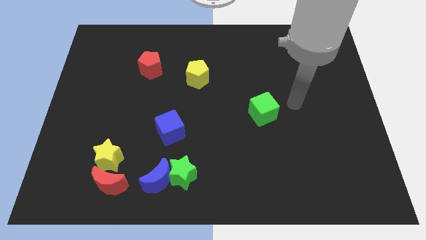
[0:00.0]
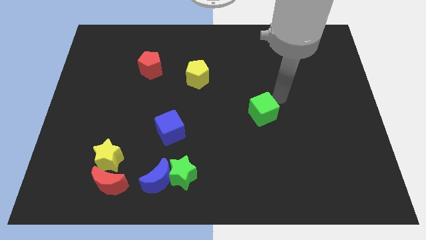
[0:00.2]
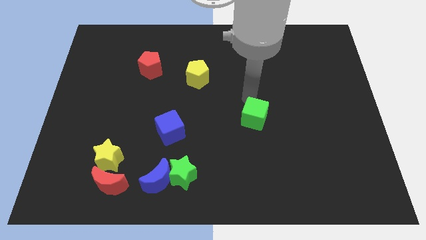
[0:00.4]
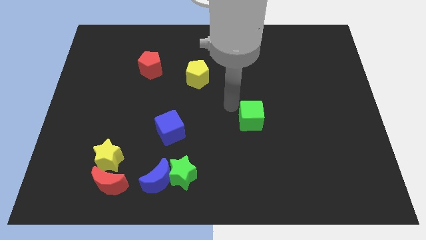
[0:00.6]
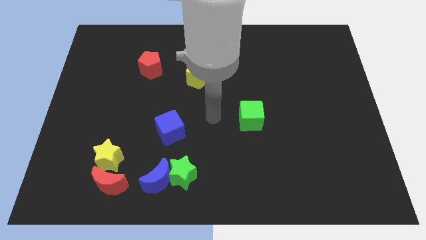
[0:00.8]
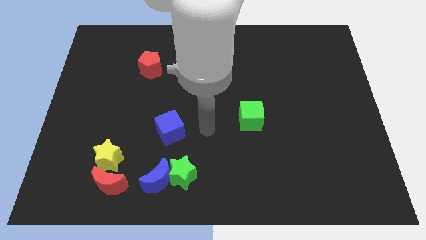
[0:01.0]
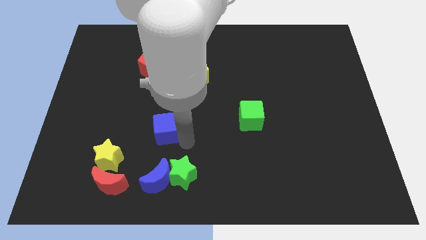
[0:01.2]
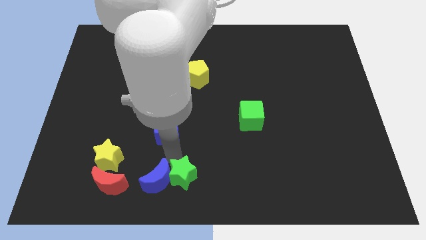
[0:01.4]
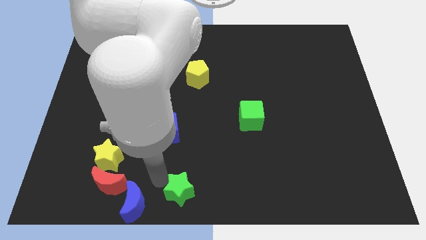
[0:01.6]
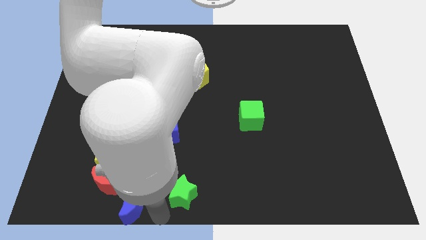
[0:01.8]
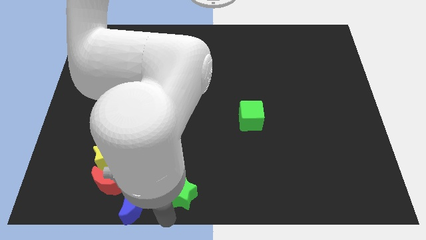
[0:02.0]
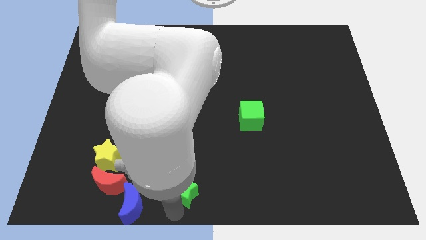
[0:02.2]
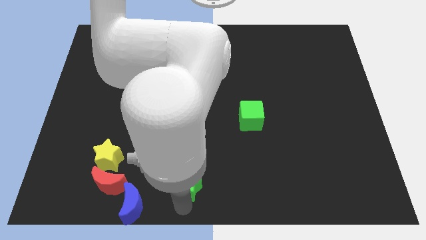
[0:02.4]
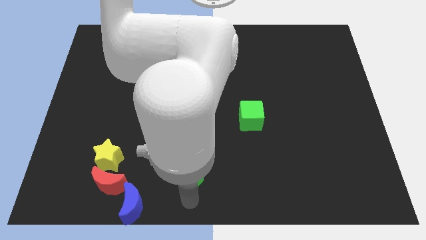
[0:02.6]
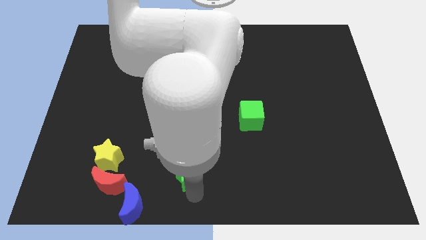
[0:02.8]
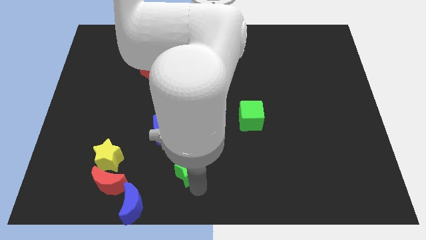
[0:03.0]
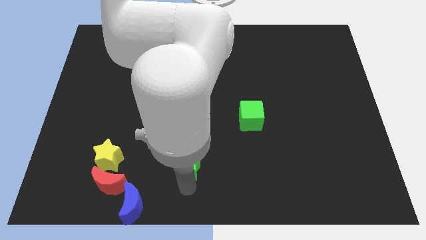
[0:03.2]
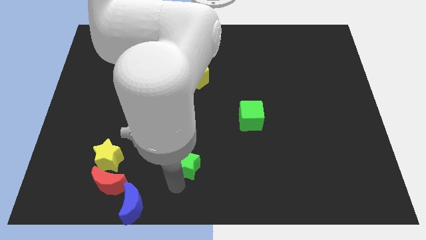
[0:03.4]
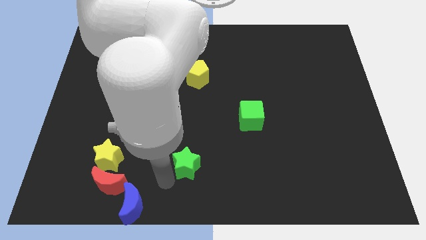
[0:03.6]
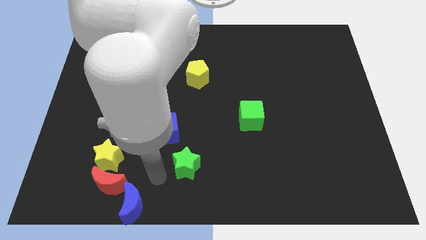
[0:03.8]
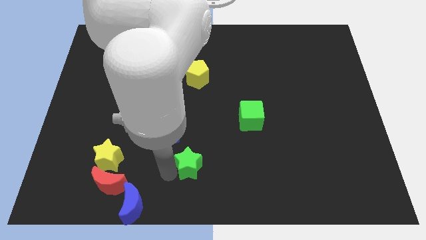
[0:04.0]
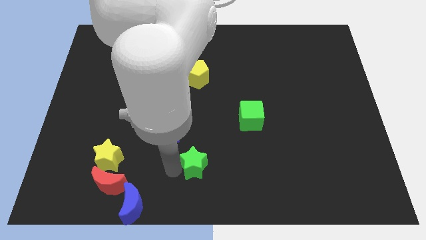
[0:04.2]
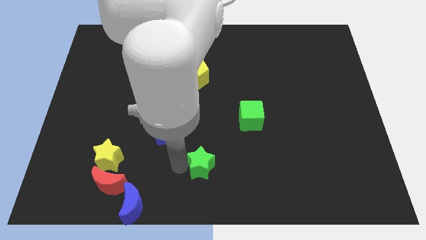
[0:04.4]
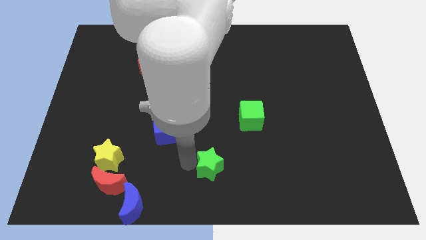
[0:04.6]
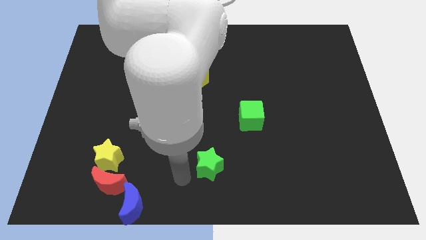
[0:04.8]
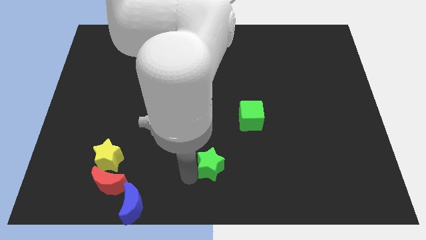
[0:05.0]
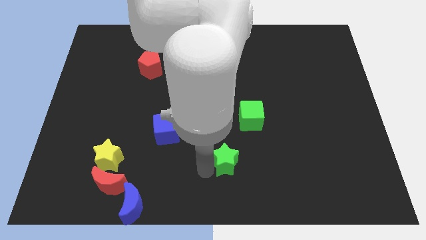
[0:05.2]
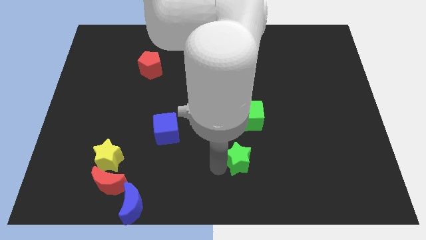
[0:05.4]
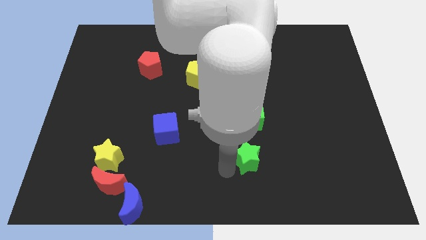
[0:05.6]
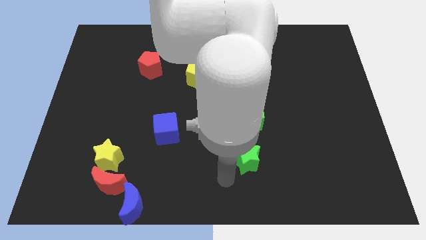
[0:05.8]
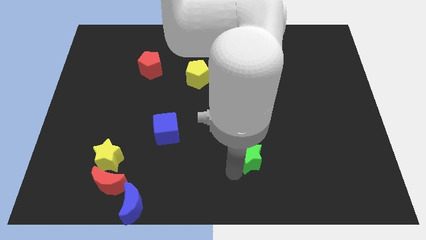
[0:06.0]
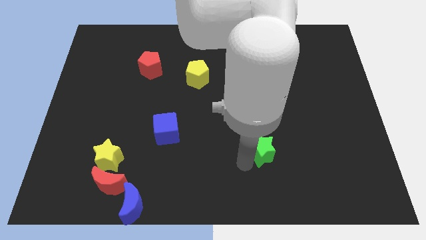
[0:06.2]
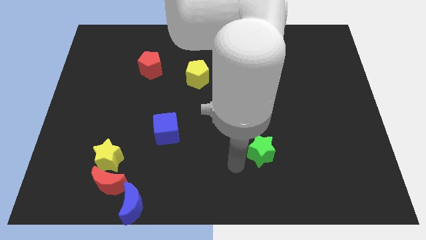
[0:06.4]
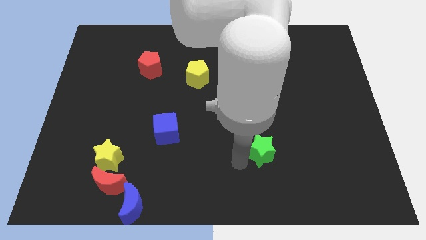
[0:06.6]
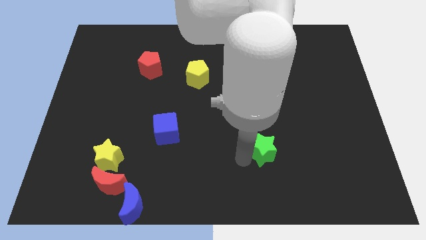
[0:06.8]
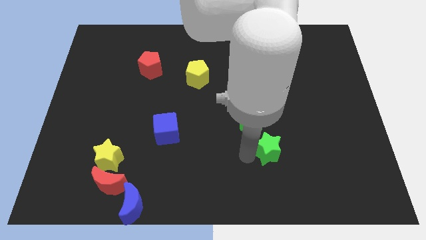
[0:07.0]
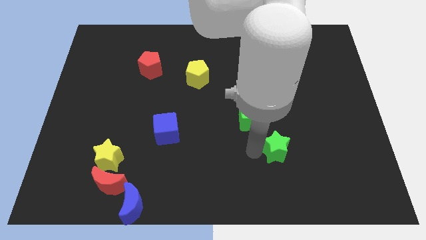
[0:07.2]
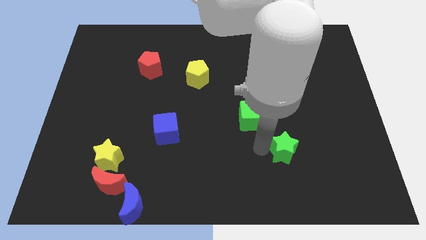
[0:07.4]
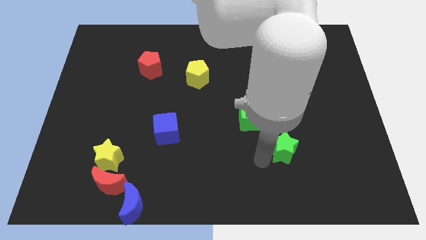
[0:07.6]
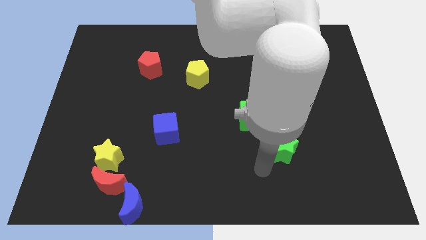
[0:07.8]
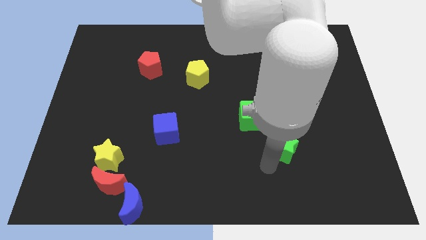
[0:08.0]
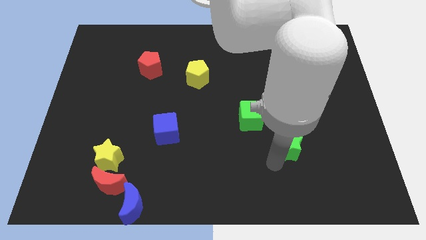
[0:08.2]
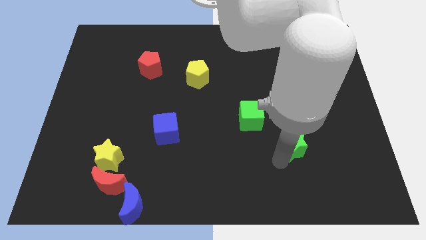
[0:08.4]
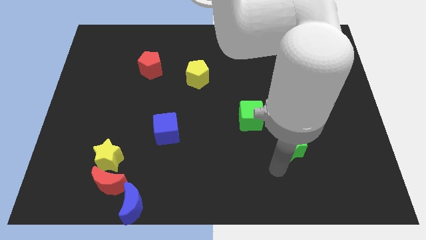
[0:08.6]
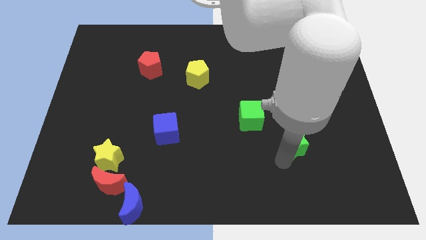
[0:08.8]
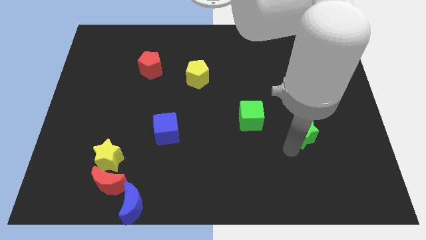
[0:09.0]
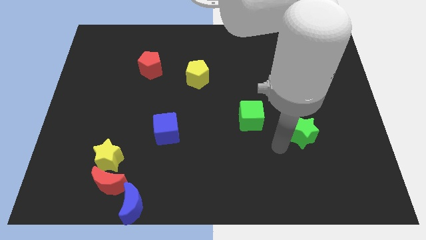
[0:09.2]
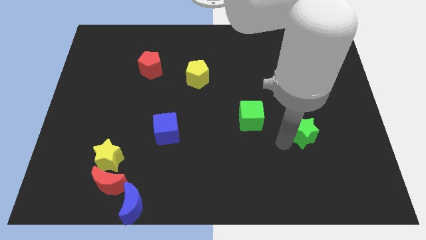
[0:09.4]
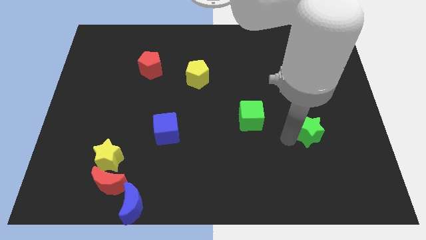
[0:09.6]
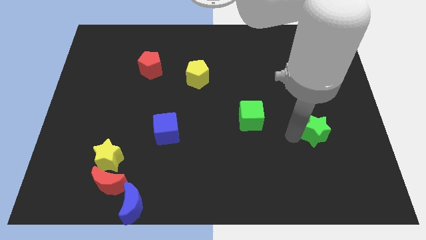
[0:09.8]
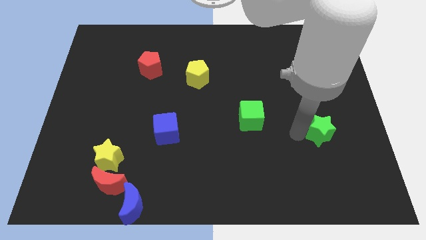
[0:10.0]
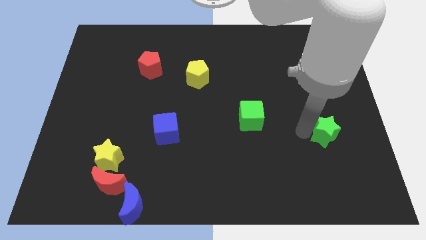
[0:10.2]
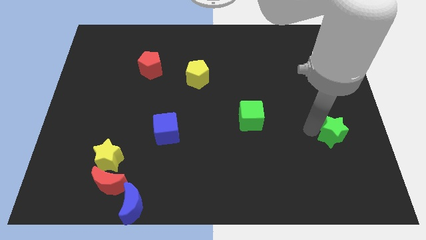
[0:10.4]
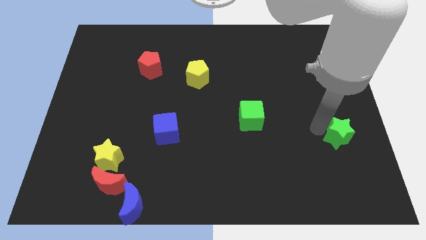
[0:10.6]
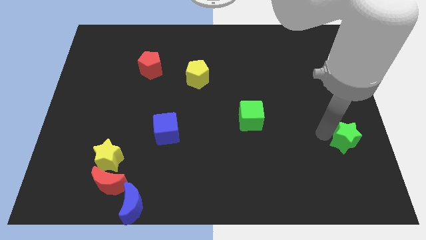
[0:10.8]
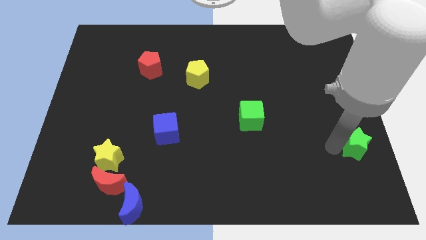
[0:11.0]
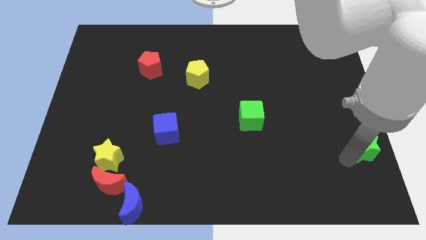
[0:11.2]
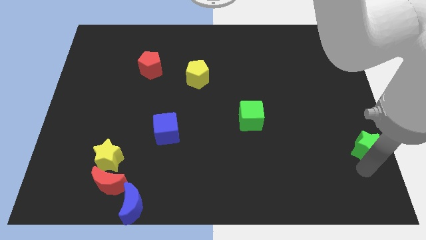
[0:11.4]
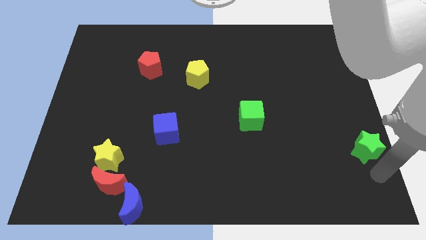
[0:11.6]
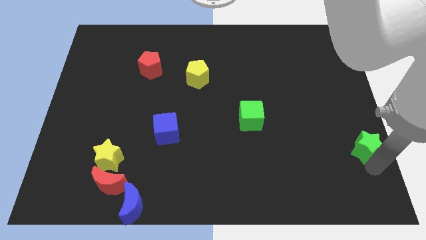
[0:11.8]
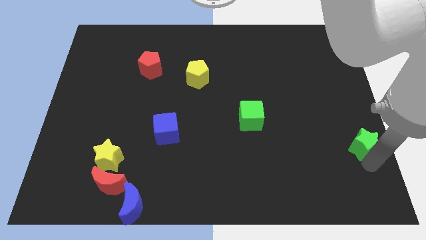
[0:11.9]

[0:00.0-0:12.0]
slide the green star to the right side

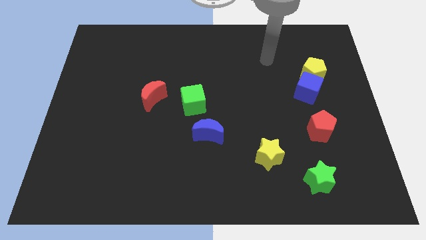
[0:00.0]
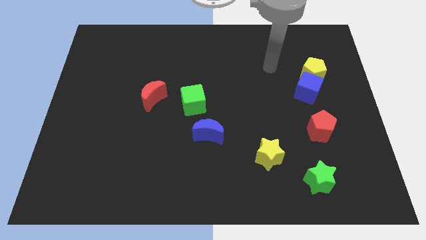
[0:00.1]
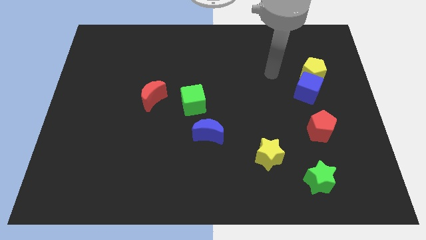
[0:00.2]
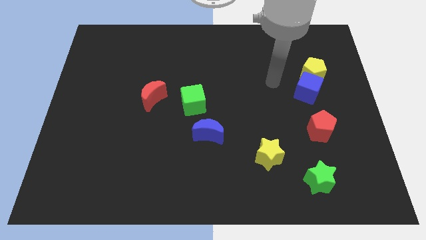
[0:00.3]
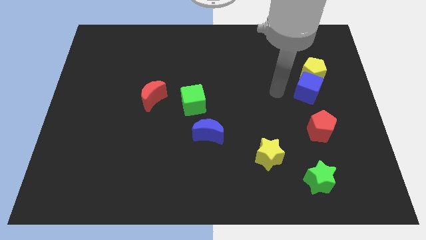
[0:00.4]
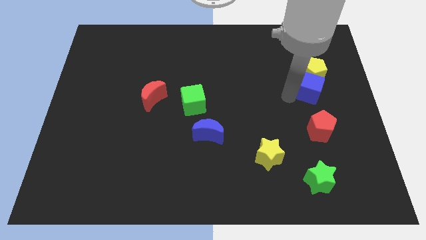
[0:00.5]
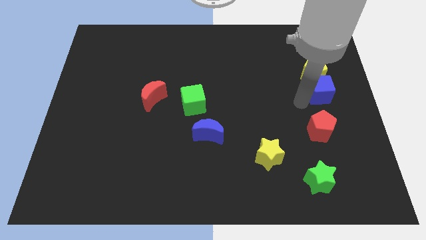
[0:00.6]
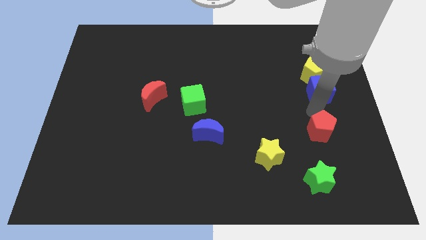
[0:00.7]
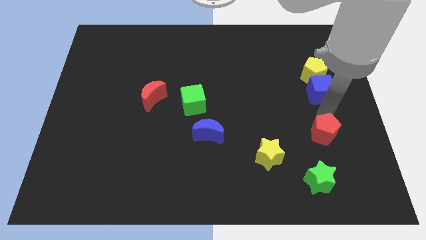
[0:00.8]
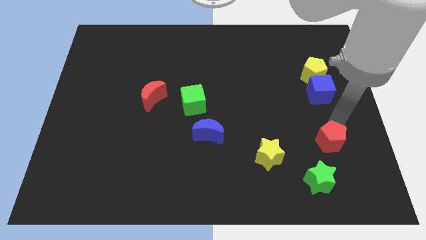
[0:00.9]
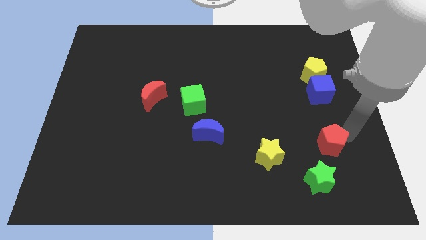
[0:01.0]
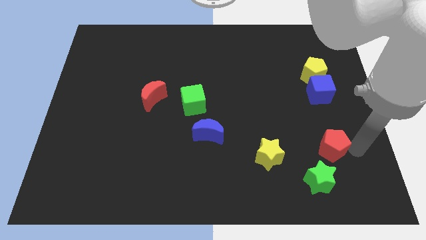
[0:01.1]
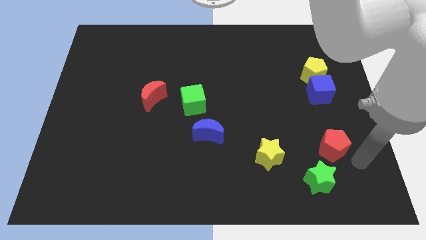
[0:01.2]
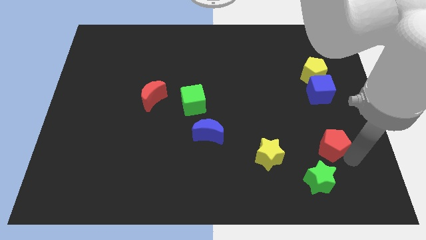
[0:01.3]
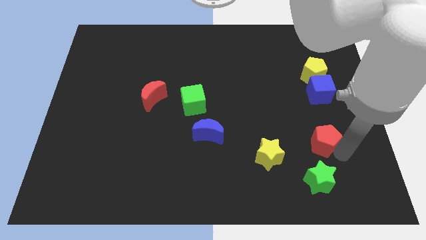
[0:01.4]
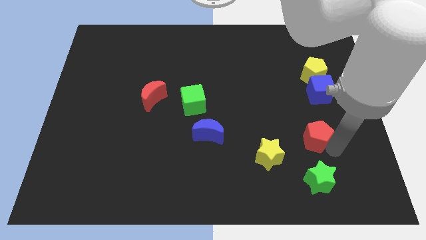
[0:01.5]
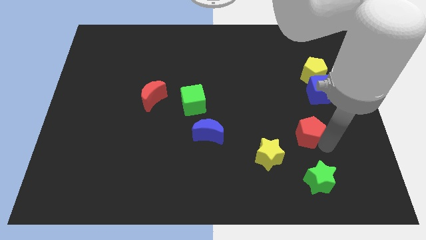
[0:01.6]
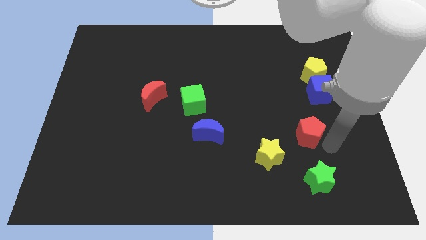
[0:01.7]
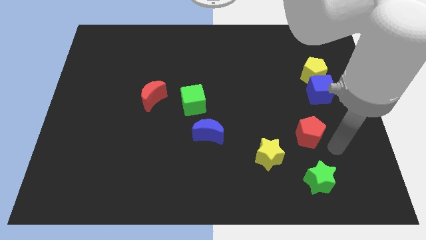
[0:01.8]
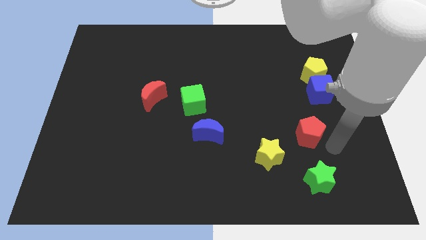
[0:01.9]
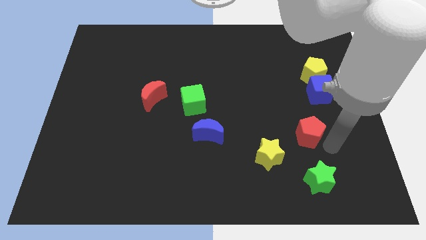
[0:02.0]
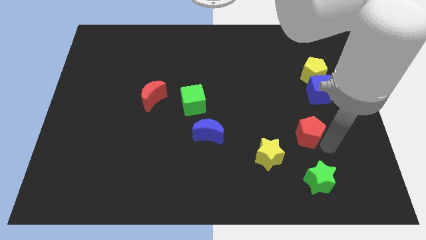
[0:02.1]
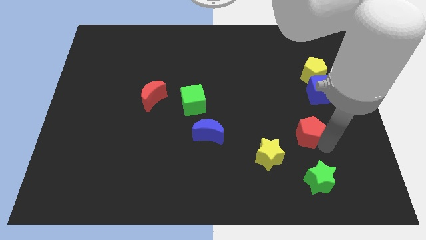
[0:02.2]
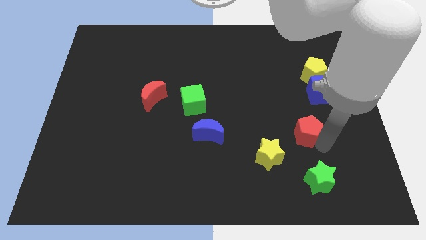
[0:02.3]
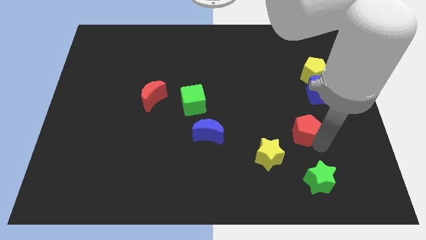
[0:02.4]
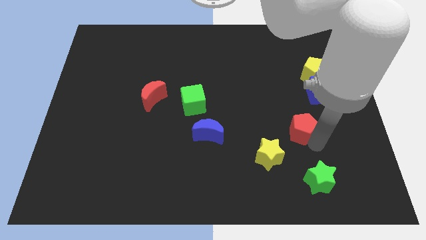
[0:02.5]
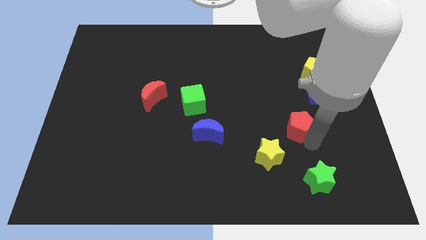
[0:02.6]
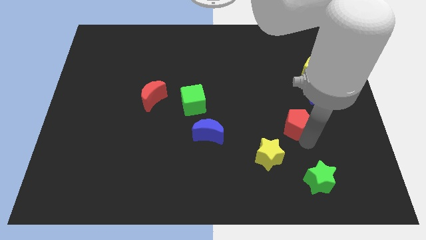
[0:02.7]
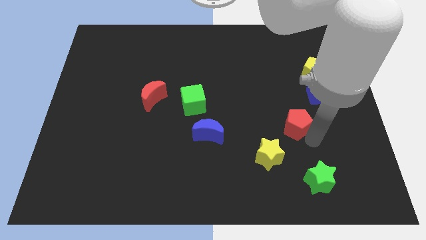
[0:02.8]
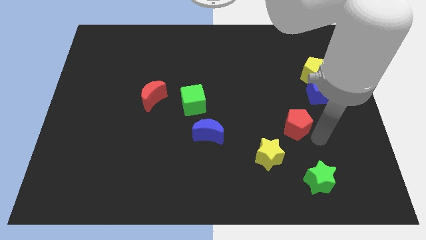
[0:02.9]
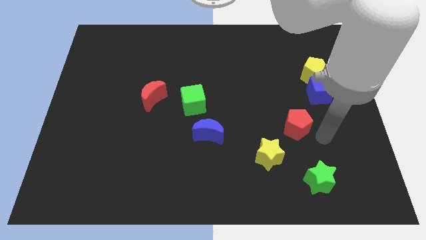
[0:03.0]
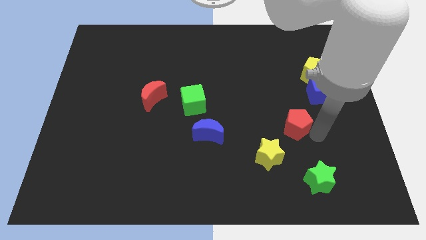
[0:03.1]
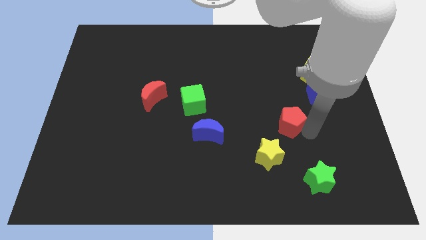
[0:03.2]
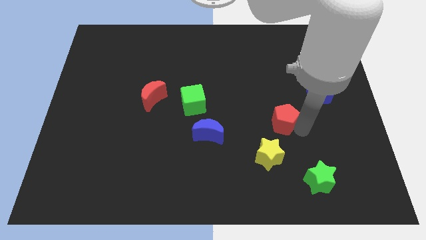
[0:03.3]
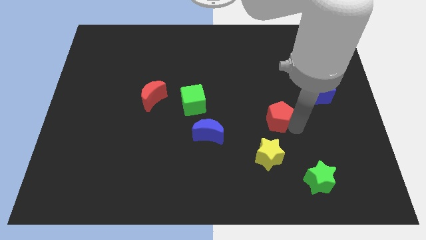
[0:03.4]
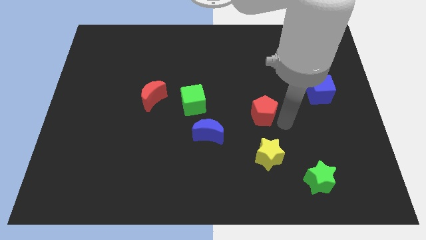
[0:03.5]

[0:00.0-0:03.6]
slide the red pentagon to the center
